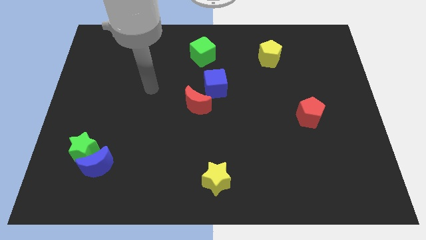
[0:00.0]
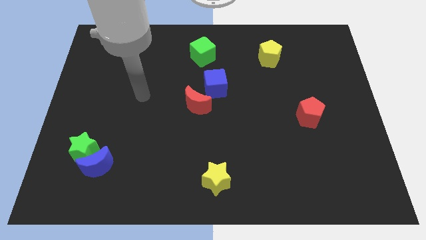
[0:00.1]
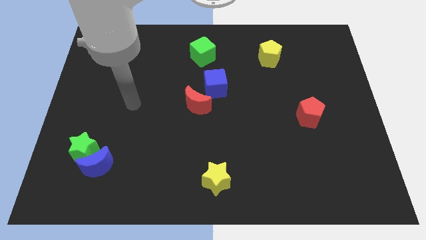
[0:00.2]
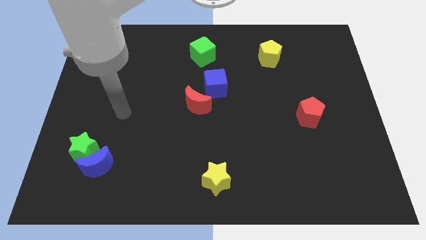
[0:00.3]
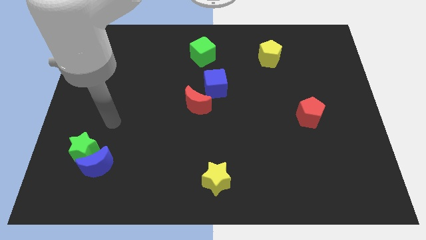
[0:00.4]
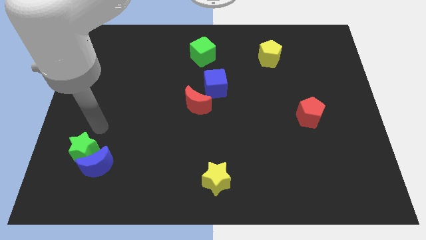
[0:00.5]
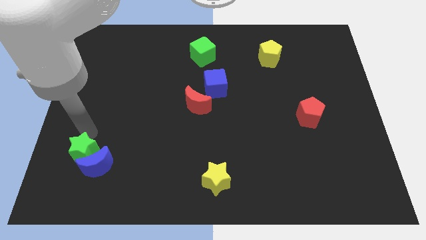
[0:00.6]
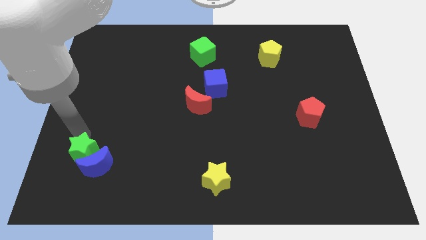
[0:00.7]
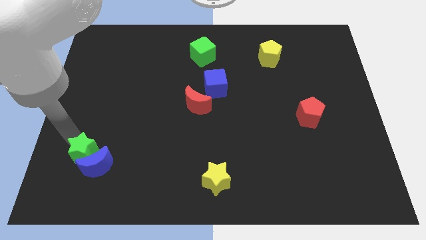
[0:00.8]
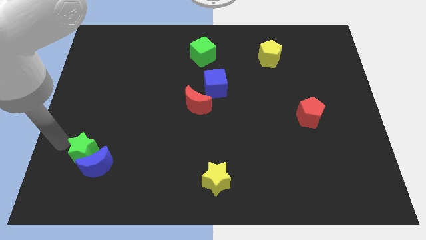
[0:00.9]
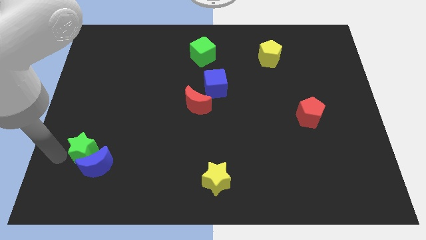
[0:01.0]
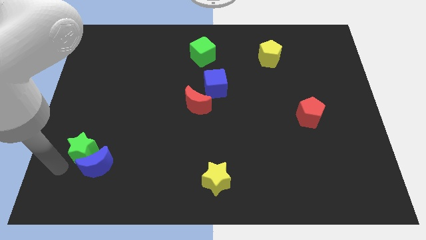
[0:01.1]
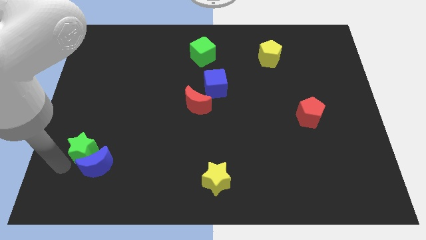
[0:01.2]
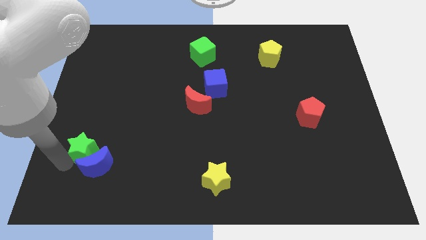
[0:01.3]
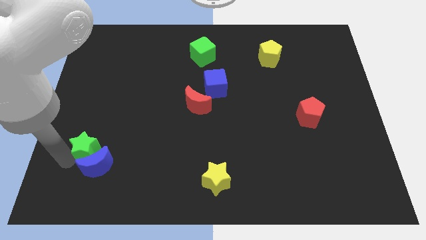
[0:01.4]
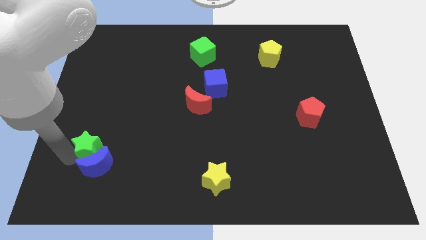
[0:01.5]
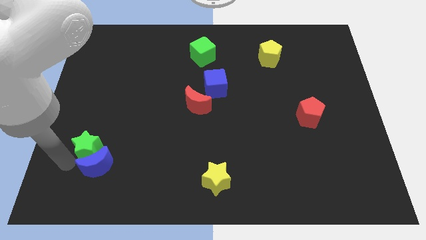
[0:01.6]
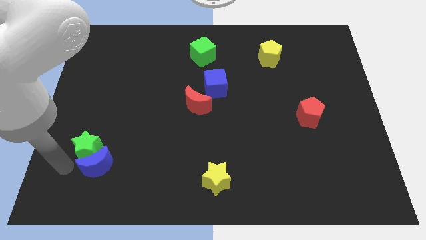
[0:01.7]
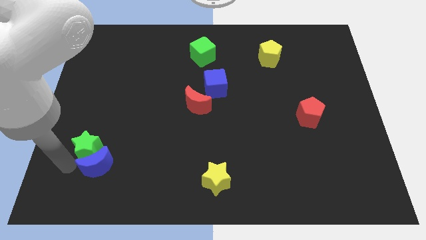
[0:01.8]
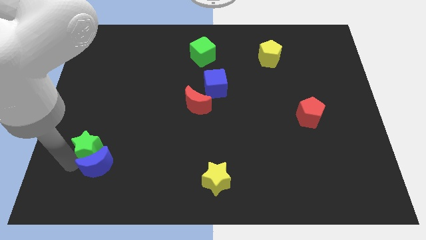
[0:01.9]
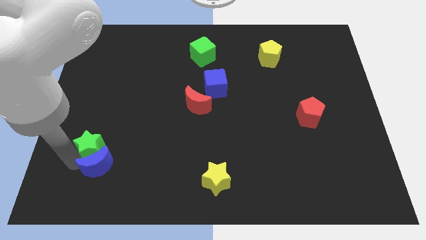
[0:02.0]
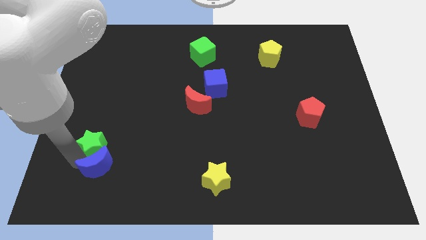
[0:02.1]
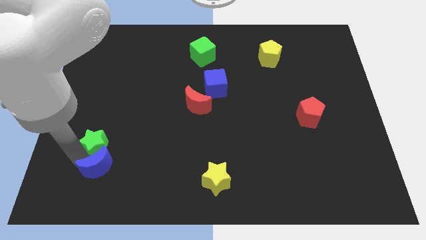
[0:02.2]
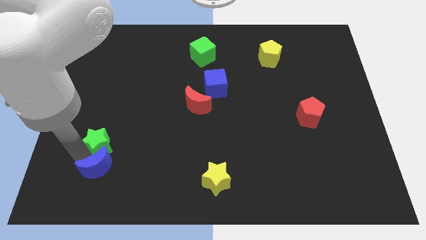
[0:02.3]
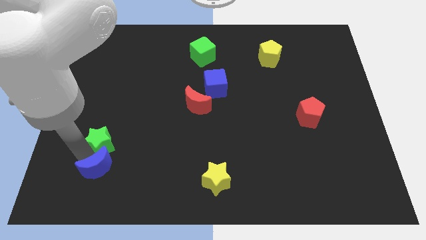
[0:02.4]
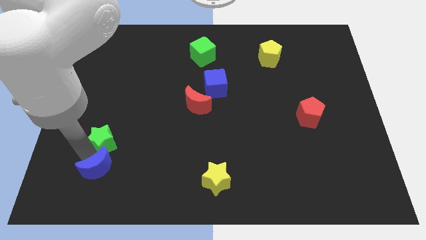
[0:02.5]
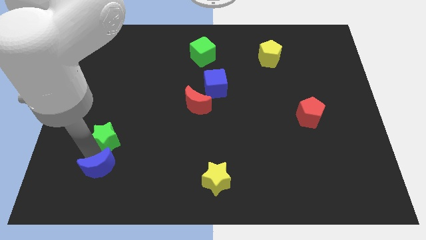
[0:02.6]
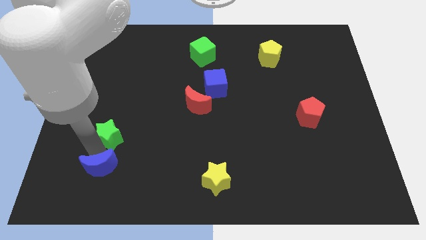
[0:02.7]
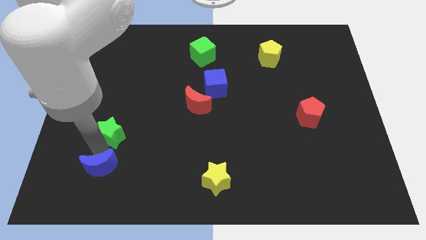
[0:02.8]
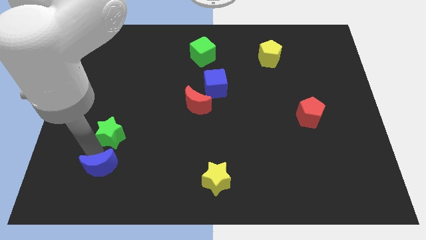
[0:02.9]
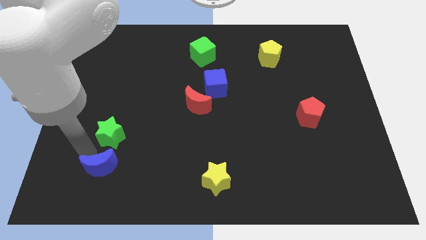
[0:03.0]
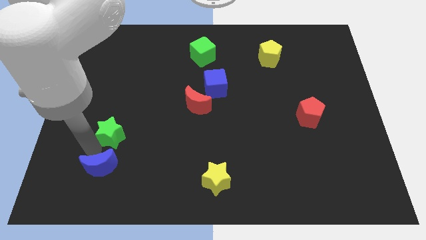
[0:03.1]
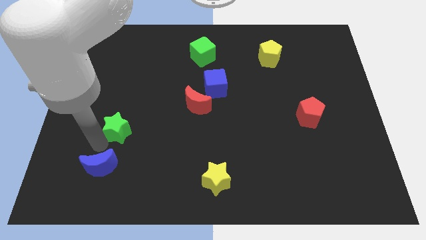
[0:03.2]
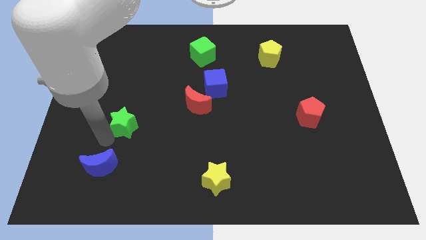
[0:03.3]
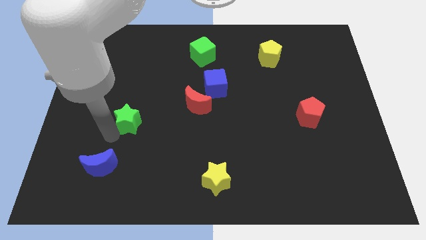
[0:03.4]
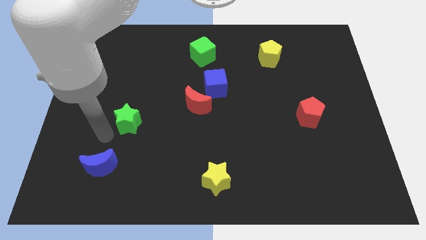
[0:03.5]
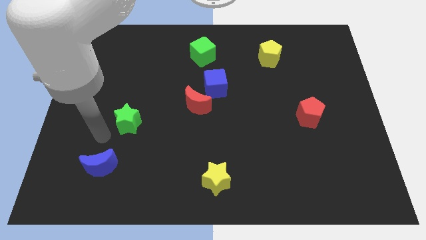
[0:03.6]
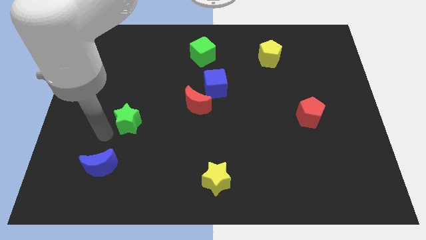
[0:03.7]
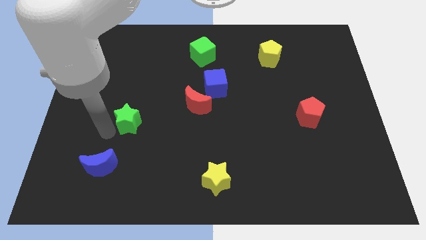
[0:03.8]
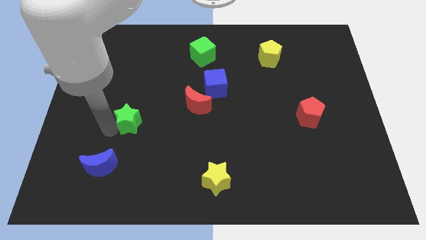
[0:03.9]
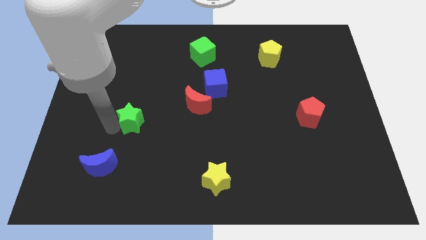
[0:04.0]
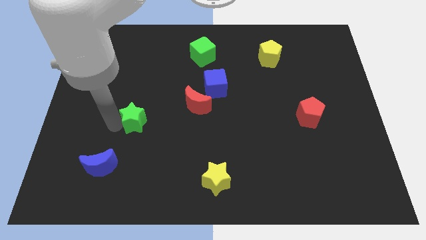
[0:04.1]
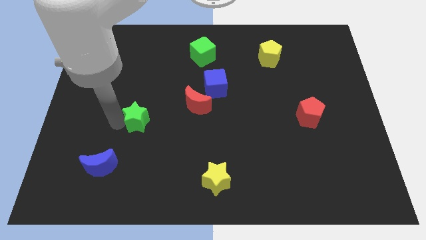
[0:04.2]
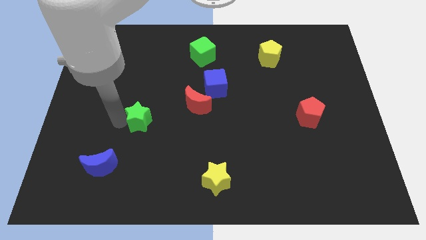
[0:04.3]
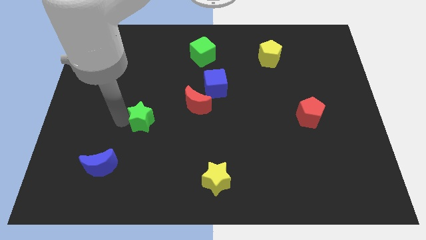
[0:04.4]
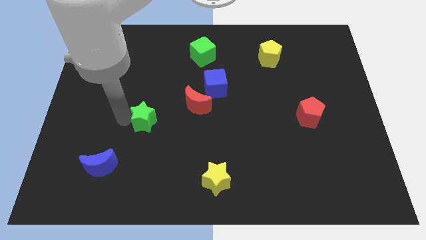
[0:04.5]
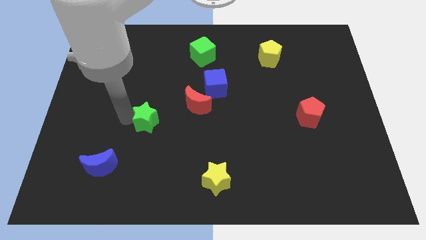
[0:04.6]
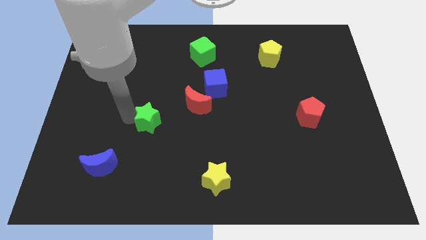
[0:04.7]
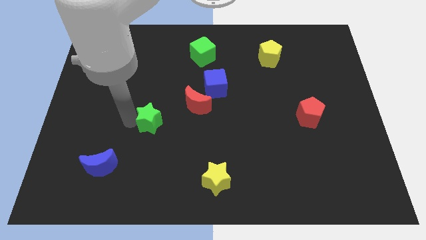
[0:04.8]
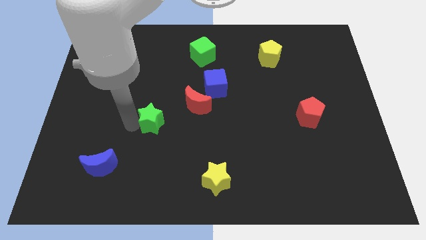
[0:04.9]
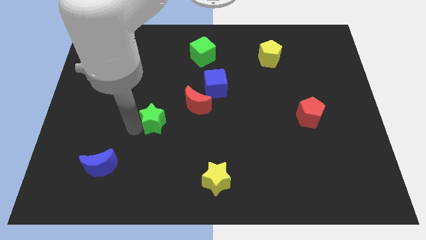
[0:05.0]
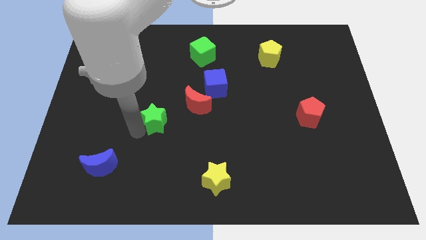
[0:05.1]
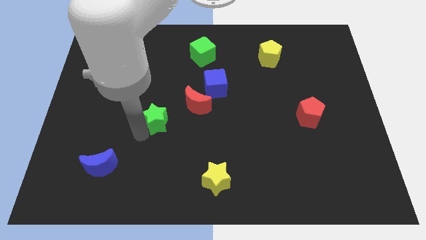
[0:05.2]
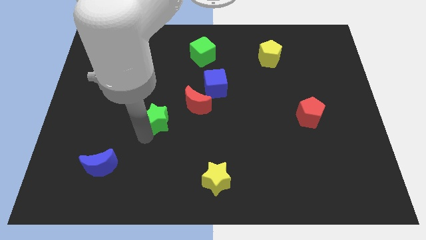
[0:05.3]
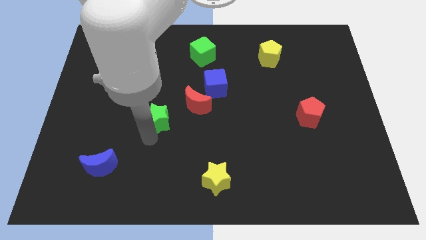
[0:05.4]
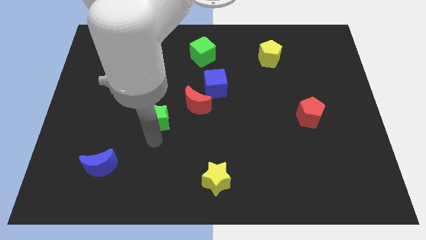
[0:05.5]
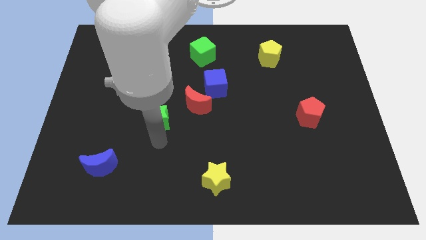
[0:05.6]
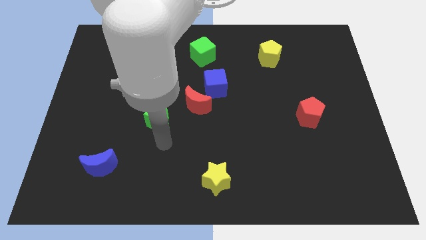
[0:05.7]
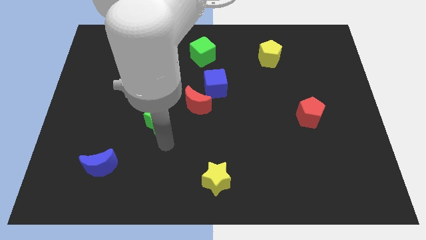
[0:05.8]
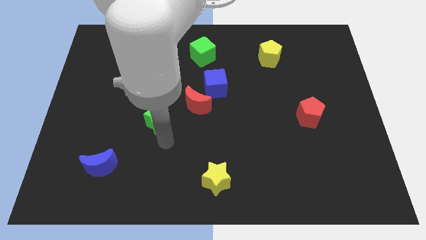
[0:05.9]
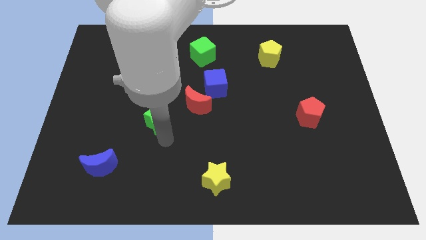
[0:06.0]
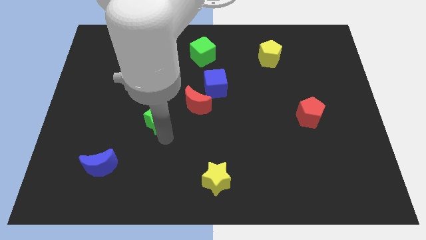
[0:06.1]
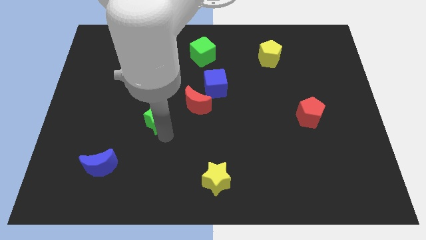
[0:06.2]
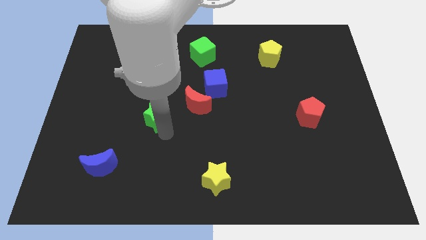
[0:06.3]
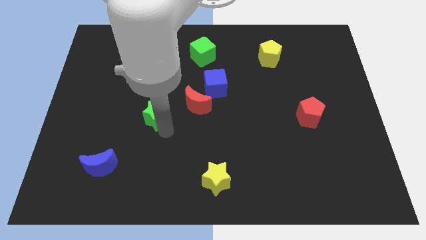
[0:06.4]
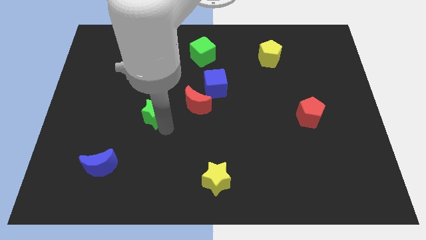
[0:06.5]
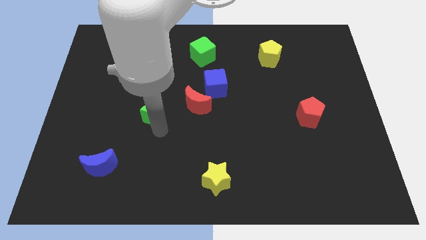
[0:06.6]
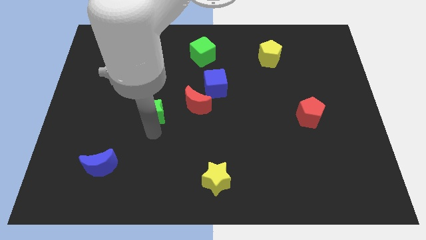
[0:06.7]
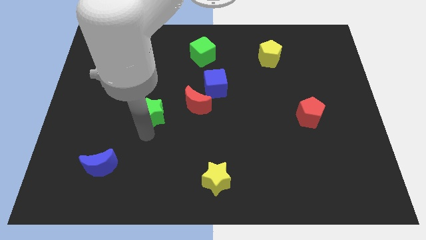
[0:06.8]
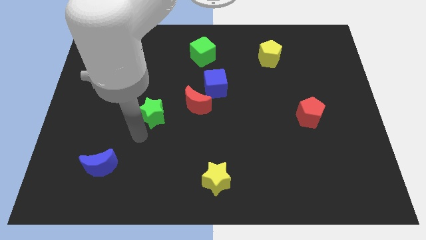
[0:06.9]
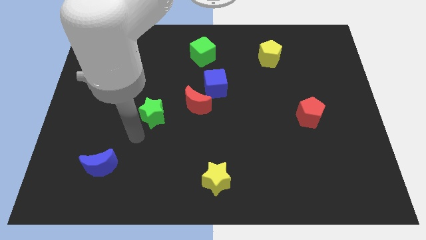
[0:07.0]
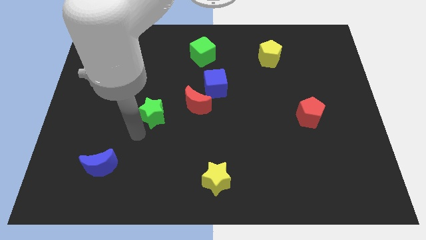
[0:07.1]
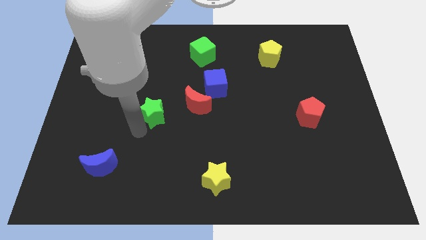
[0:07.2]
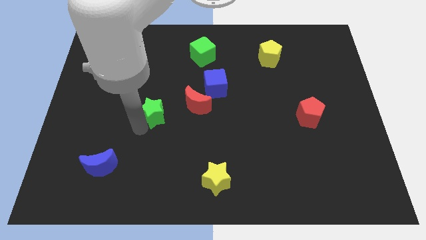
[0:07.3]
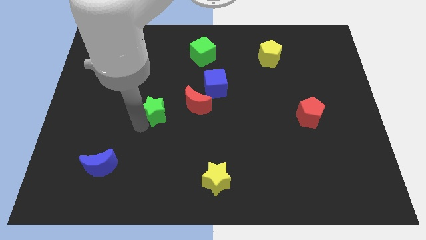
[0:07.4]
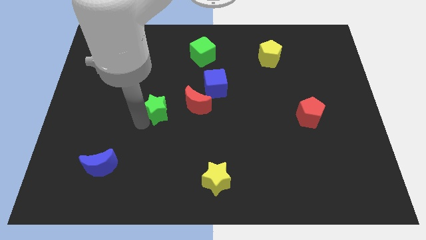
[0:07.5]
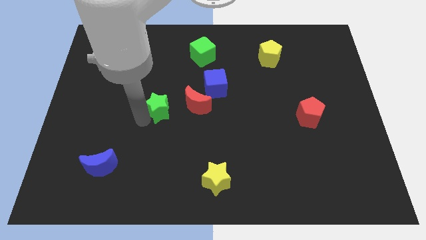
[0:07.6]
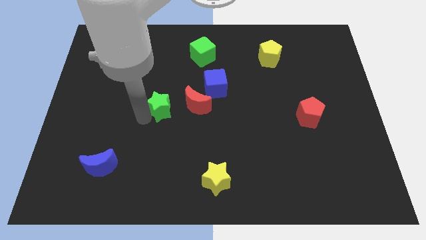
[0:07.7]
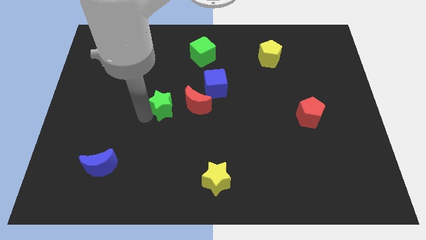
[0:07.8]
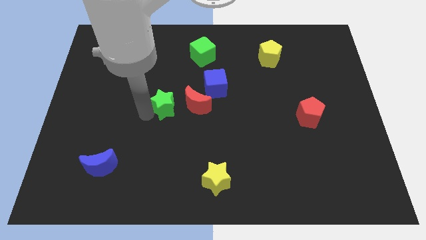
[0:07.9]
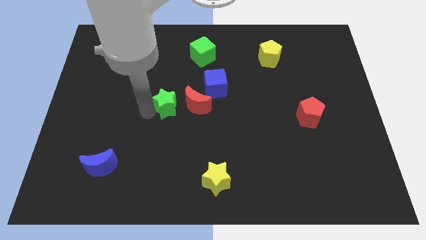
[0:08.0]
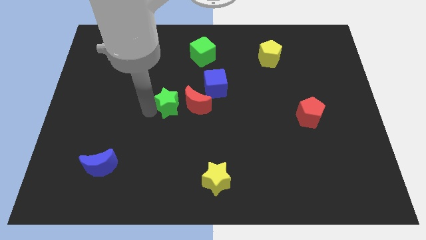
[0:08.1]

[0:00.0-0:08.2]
move the green star up and to the right
